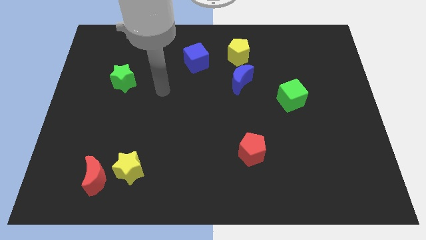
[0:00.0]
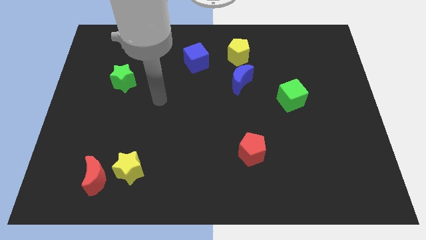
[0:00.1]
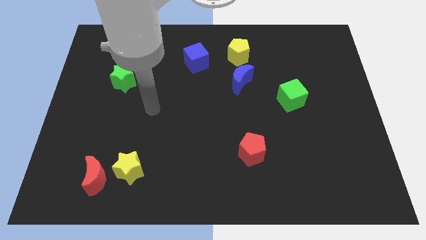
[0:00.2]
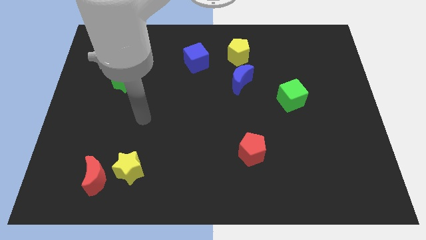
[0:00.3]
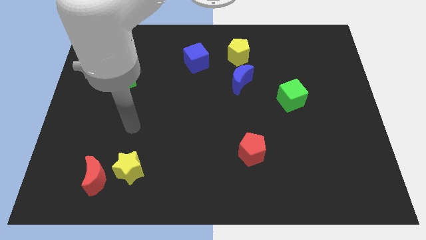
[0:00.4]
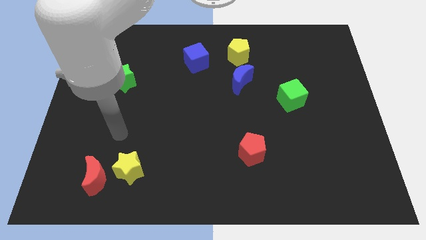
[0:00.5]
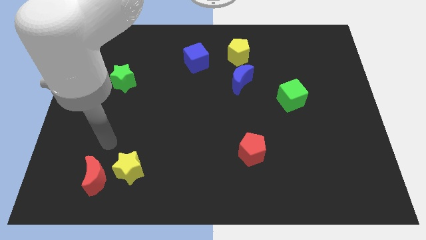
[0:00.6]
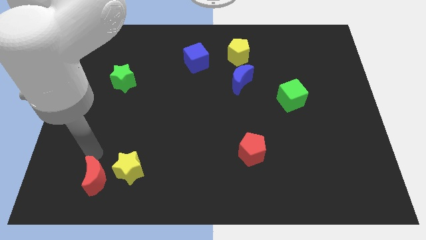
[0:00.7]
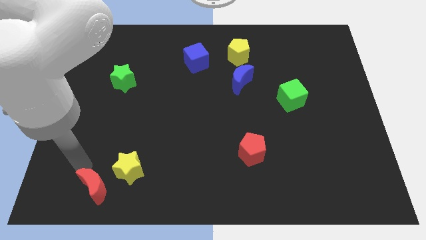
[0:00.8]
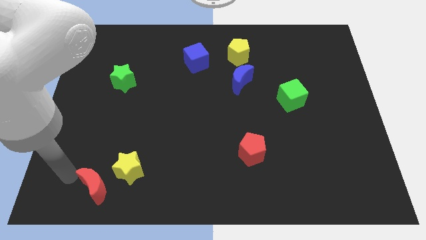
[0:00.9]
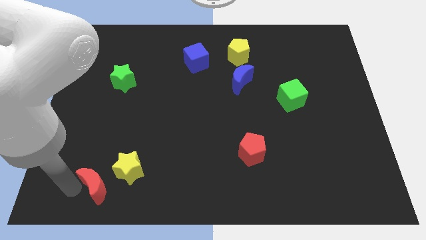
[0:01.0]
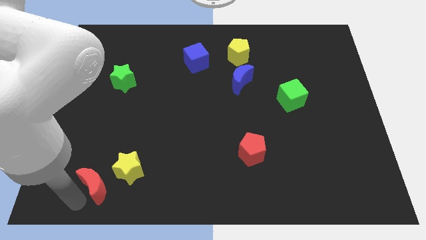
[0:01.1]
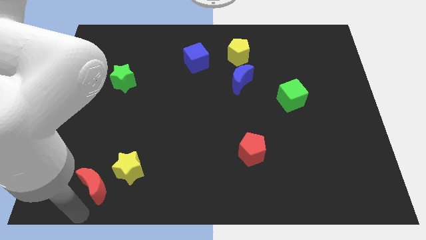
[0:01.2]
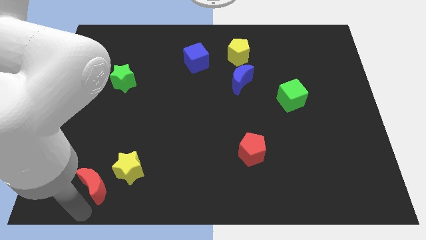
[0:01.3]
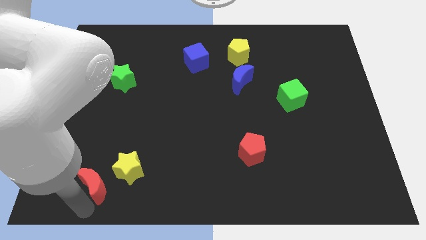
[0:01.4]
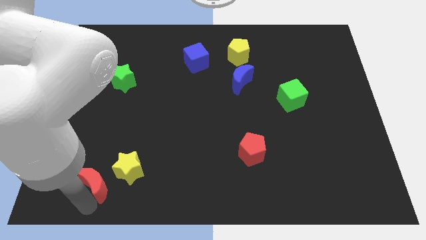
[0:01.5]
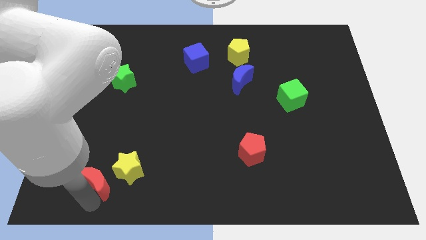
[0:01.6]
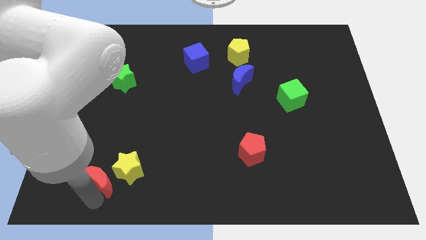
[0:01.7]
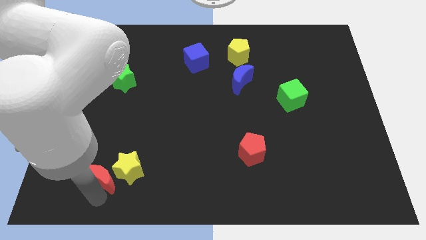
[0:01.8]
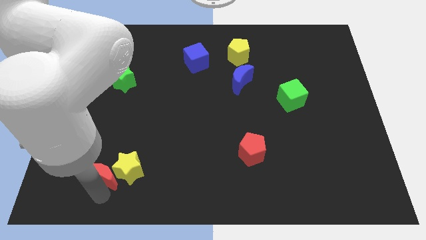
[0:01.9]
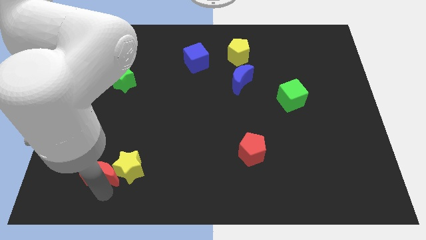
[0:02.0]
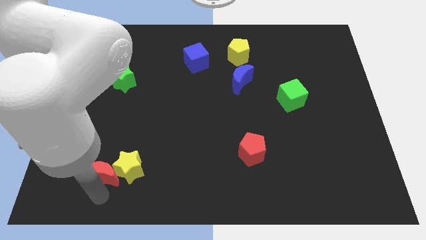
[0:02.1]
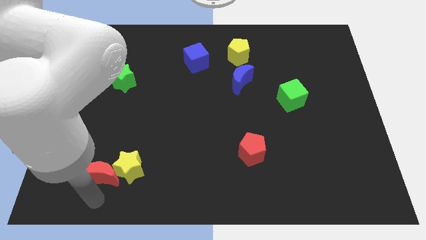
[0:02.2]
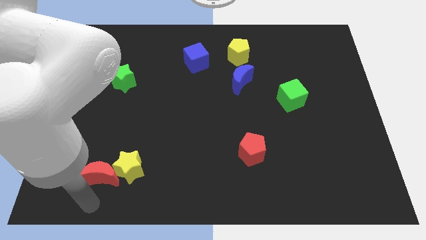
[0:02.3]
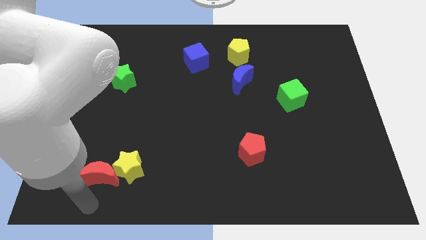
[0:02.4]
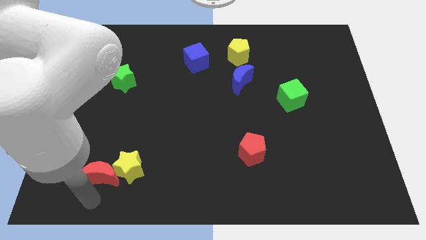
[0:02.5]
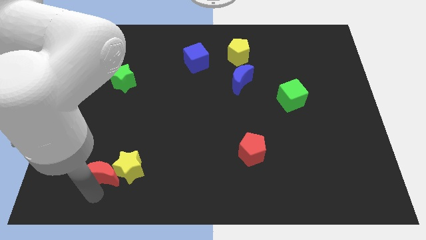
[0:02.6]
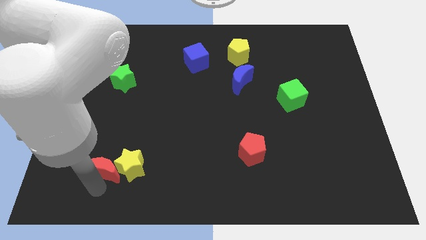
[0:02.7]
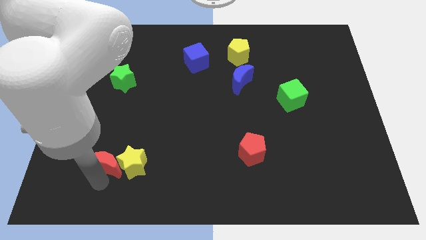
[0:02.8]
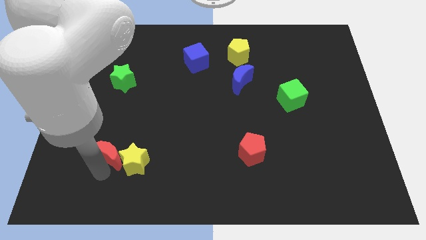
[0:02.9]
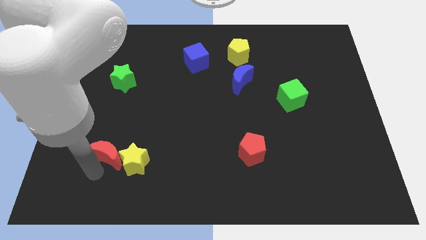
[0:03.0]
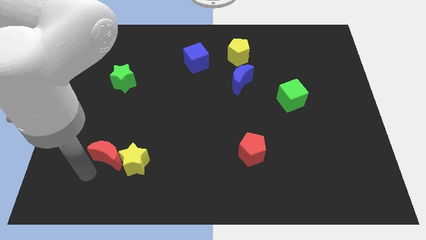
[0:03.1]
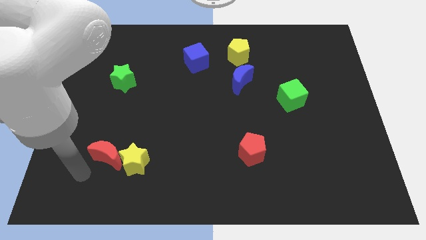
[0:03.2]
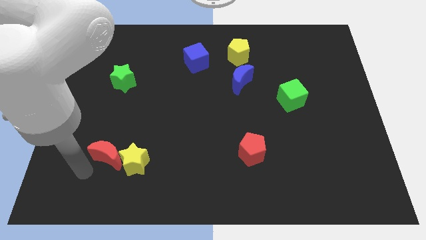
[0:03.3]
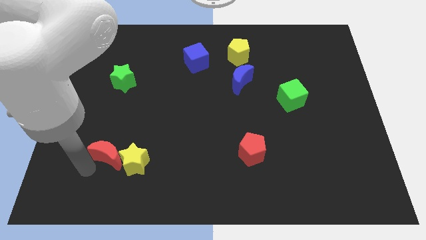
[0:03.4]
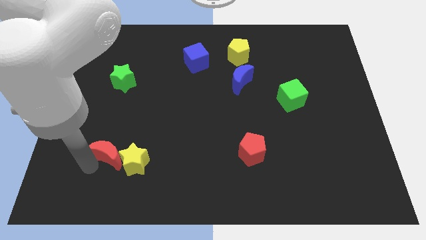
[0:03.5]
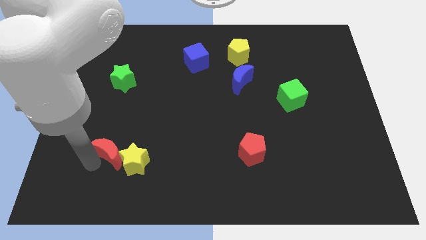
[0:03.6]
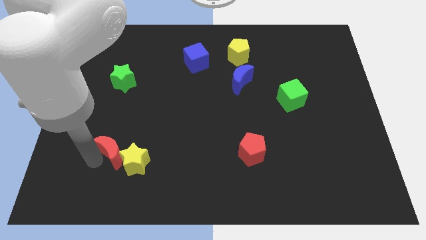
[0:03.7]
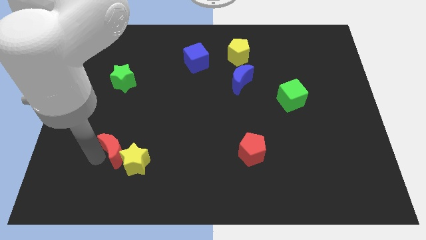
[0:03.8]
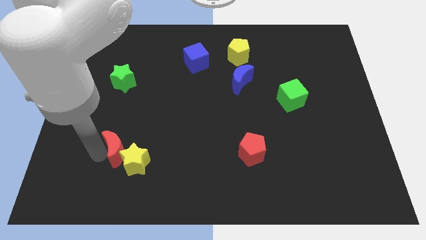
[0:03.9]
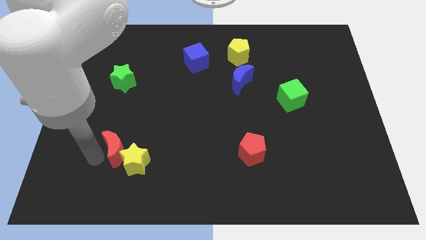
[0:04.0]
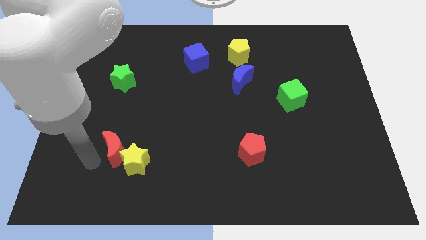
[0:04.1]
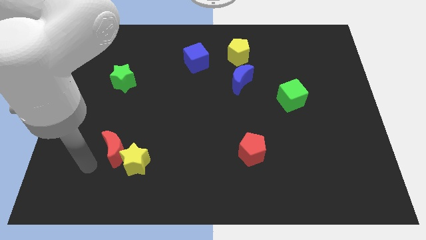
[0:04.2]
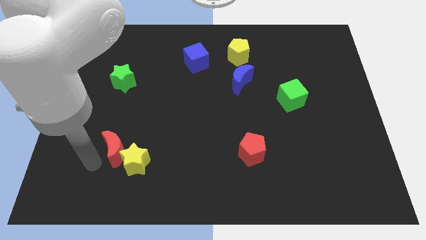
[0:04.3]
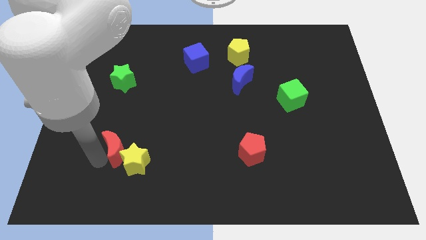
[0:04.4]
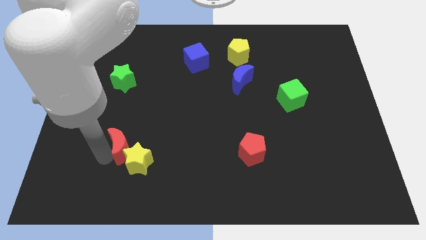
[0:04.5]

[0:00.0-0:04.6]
move the red moon upwards and to the right diagonally slightly

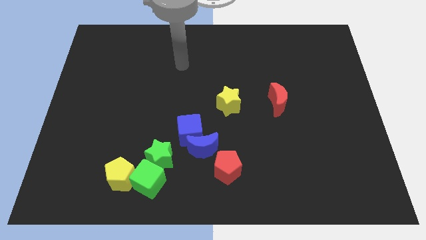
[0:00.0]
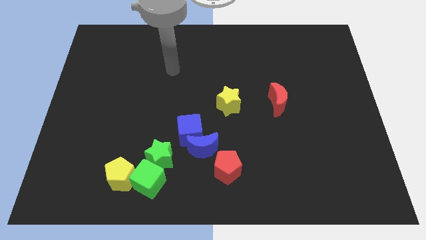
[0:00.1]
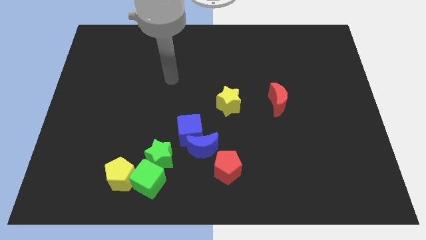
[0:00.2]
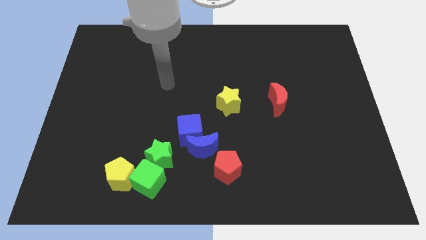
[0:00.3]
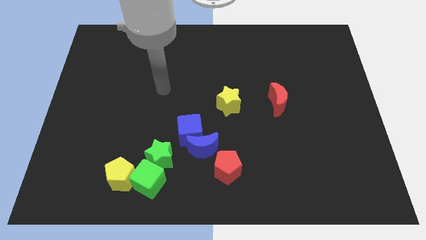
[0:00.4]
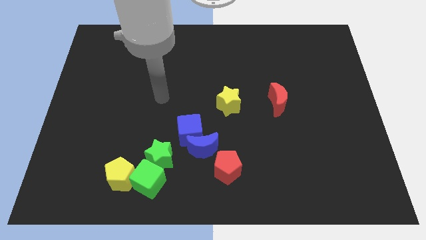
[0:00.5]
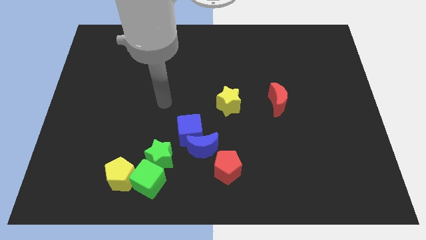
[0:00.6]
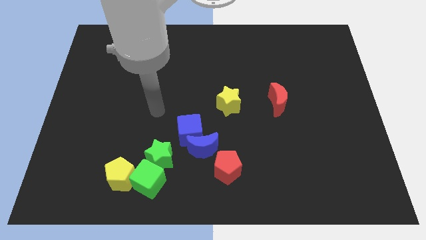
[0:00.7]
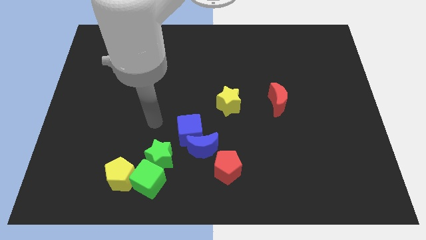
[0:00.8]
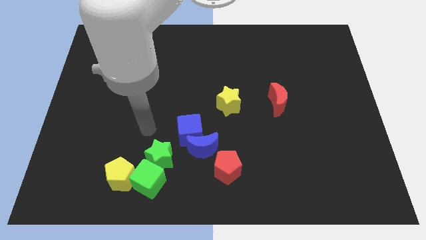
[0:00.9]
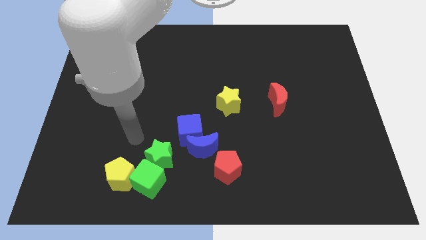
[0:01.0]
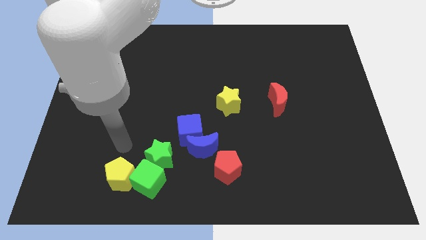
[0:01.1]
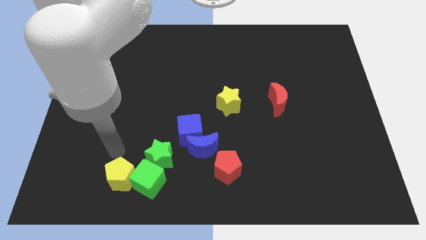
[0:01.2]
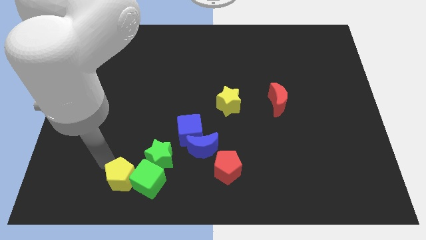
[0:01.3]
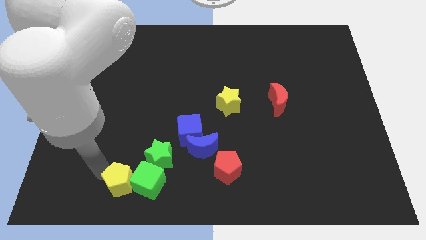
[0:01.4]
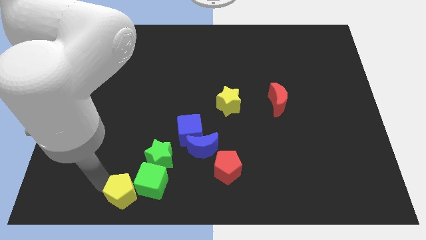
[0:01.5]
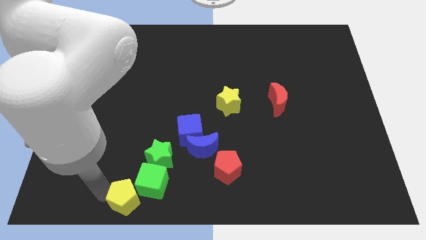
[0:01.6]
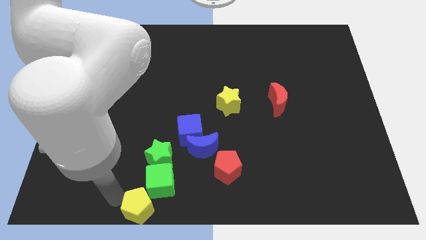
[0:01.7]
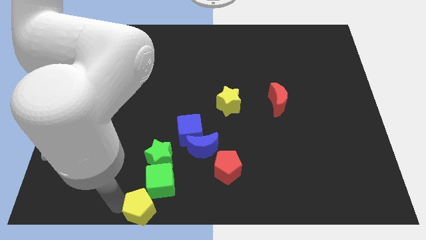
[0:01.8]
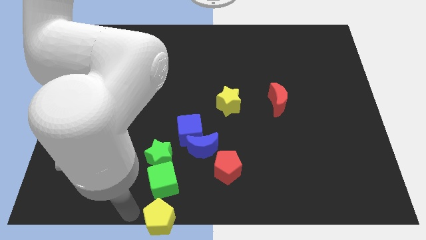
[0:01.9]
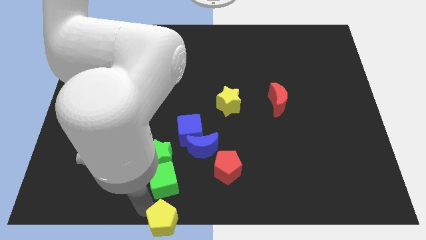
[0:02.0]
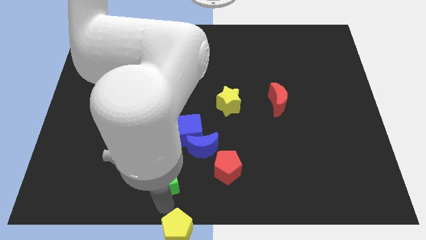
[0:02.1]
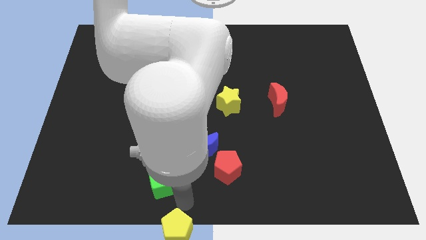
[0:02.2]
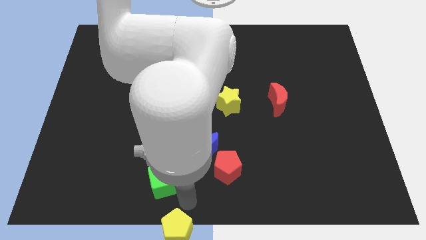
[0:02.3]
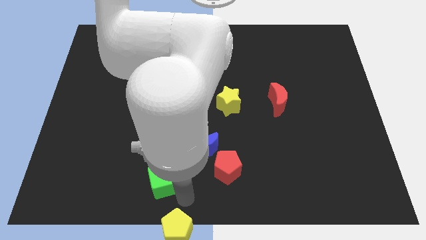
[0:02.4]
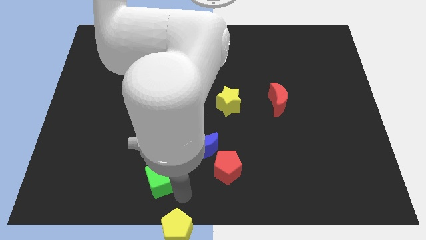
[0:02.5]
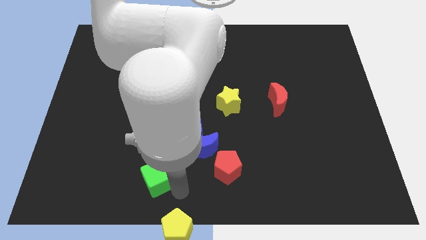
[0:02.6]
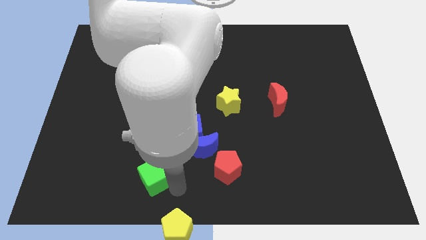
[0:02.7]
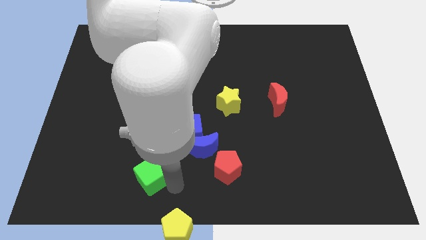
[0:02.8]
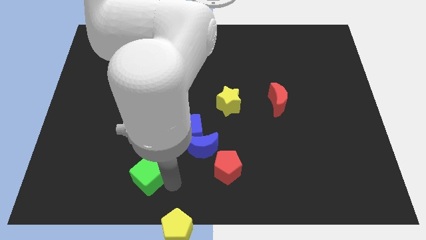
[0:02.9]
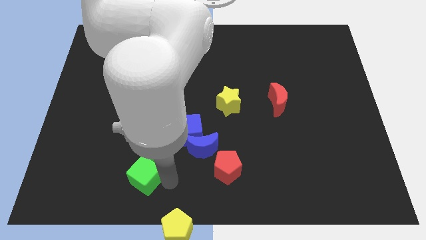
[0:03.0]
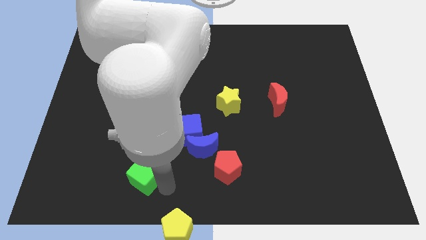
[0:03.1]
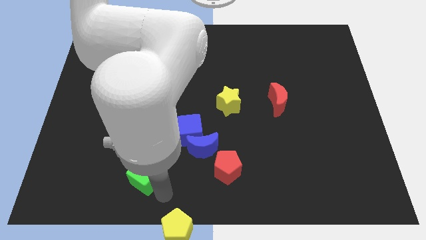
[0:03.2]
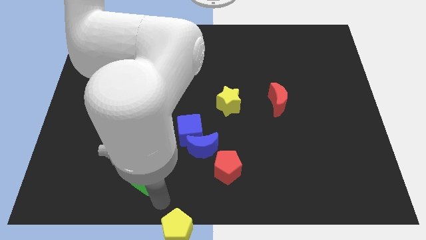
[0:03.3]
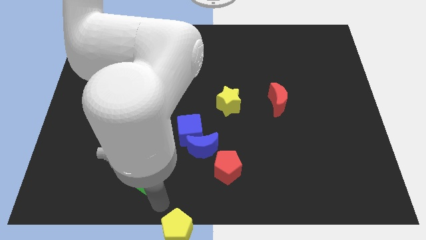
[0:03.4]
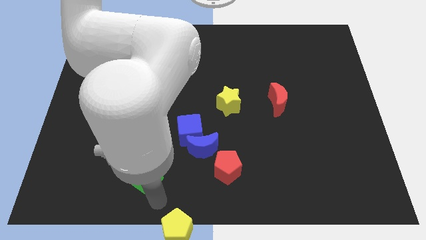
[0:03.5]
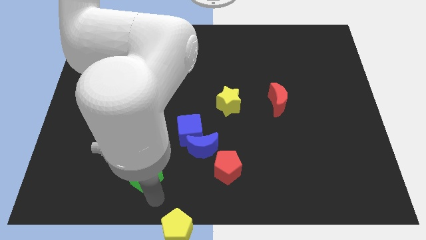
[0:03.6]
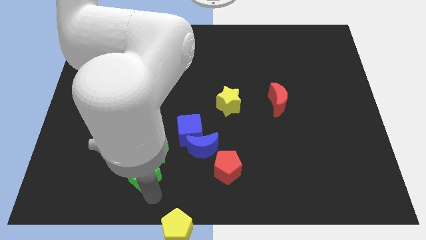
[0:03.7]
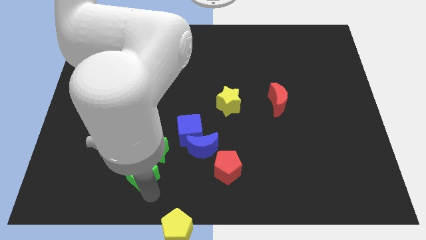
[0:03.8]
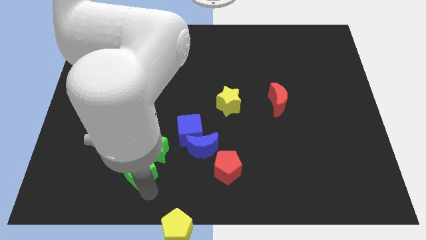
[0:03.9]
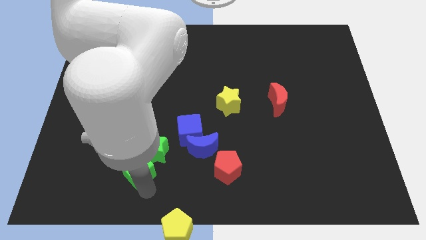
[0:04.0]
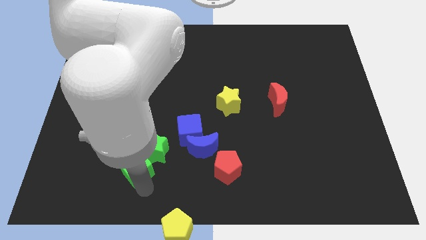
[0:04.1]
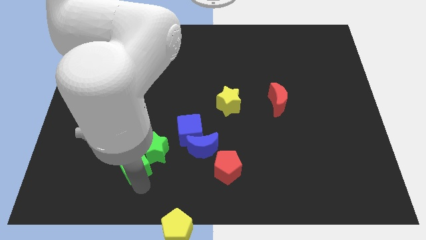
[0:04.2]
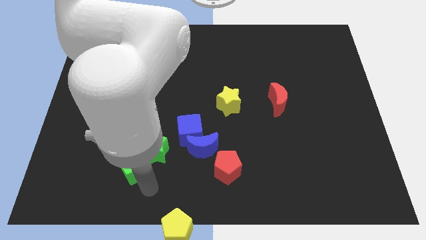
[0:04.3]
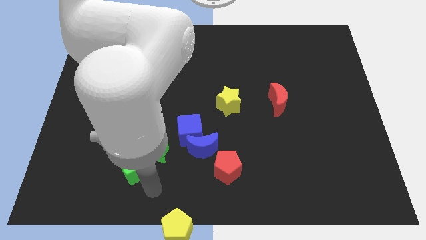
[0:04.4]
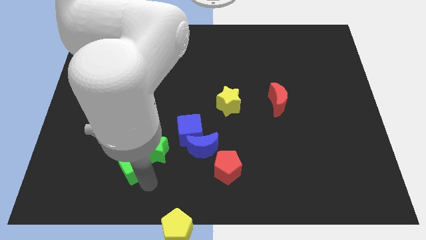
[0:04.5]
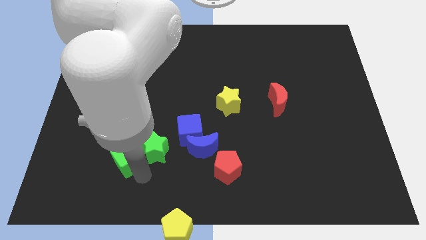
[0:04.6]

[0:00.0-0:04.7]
slightly push the green cube diagonally upwards and left
